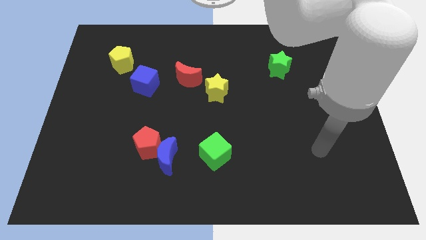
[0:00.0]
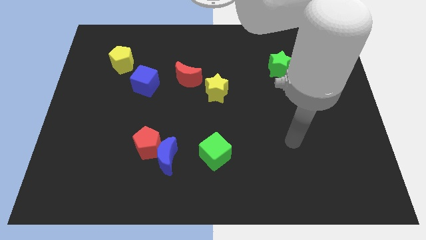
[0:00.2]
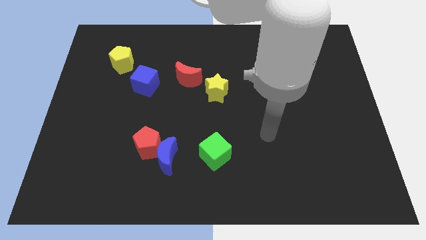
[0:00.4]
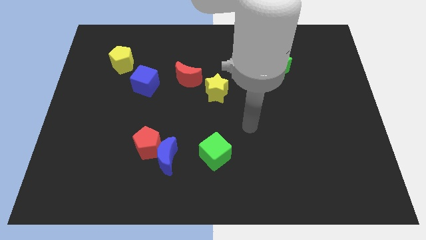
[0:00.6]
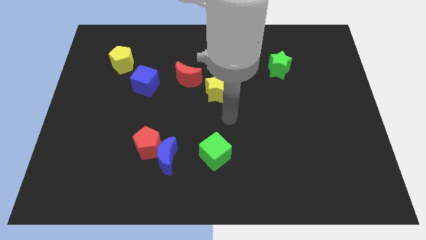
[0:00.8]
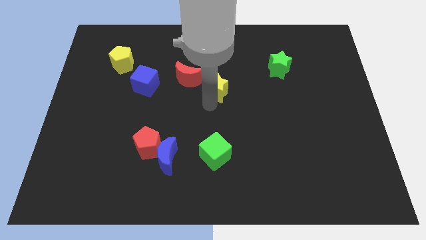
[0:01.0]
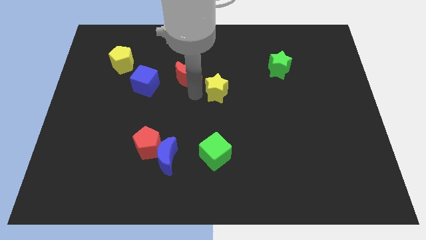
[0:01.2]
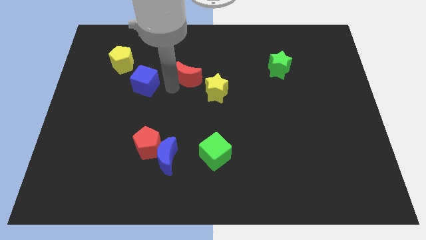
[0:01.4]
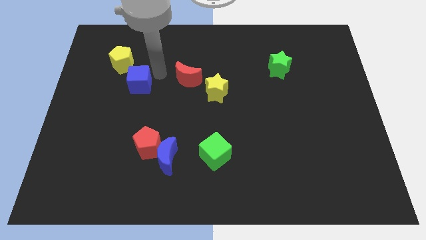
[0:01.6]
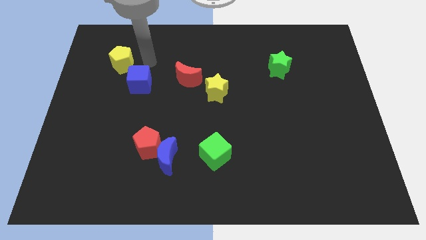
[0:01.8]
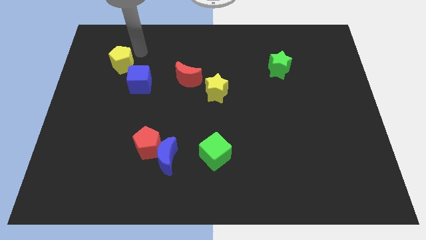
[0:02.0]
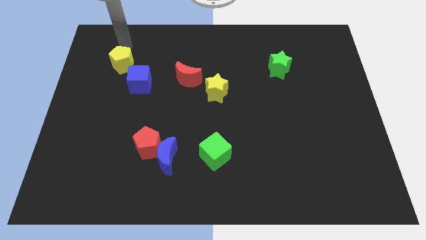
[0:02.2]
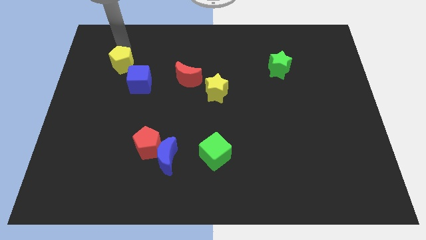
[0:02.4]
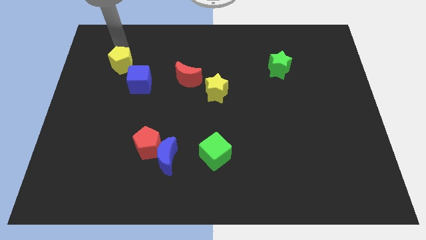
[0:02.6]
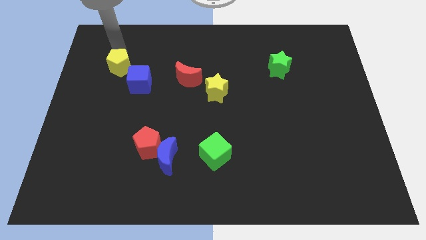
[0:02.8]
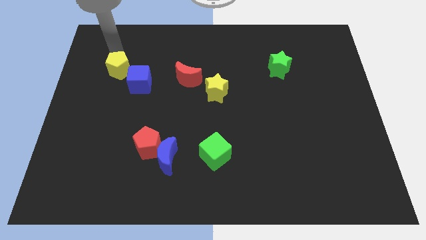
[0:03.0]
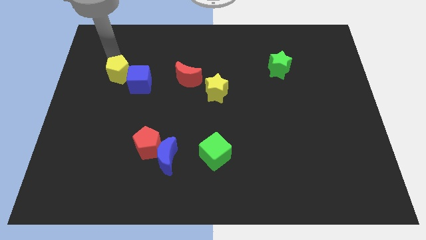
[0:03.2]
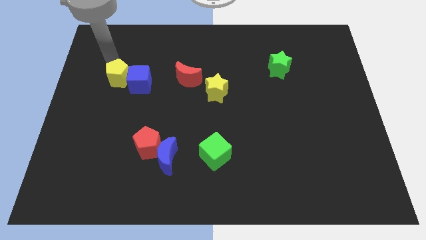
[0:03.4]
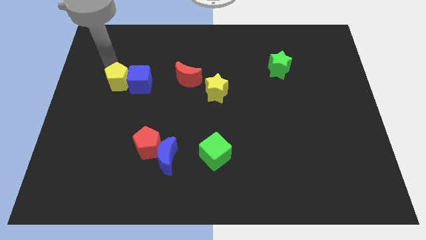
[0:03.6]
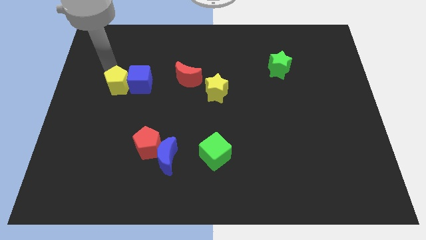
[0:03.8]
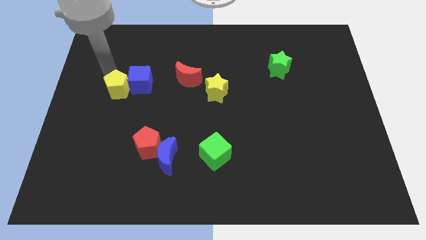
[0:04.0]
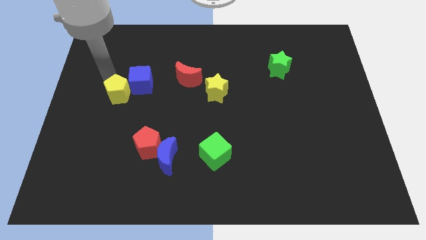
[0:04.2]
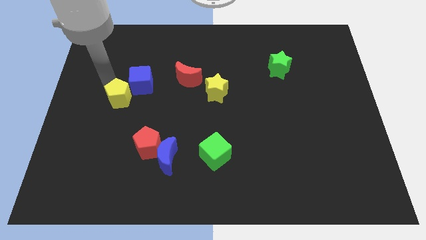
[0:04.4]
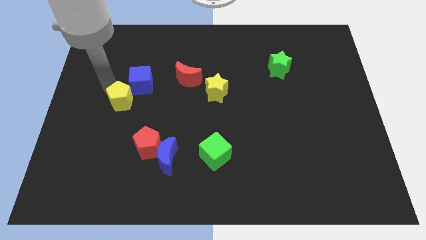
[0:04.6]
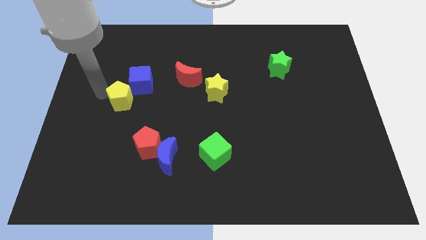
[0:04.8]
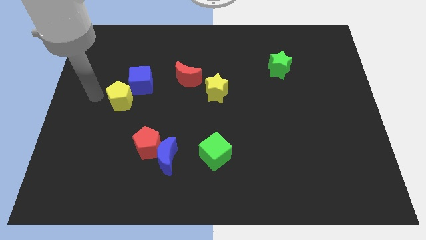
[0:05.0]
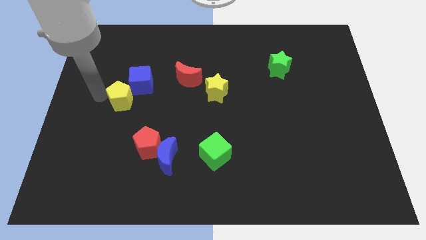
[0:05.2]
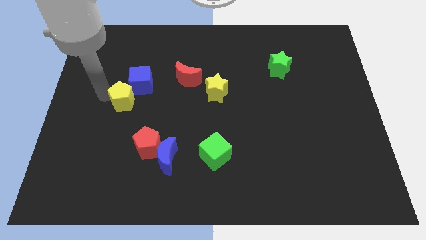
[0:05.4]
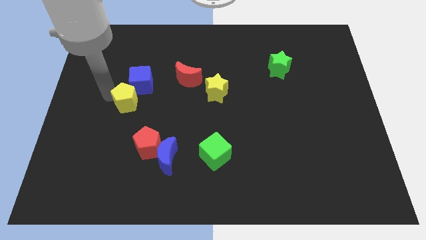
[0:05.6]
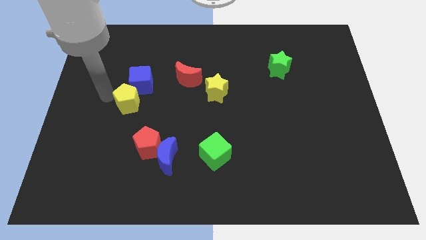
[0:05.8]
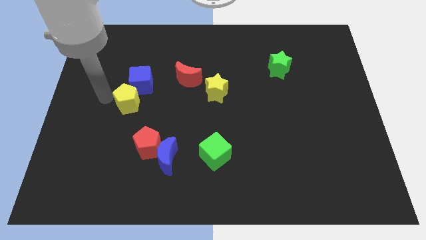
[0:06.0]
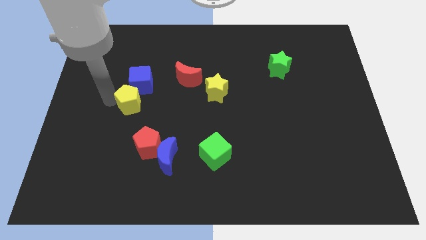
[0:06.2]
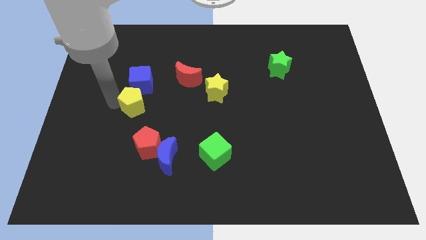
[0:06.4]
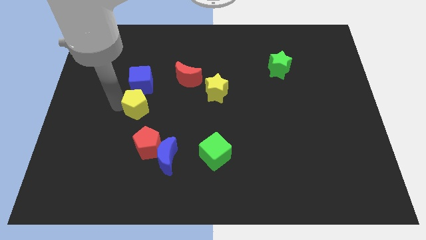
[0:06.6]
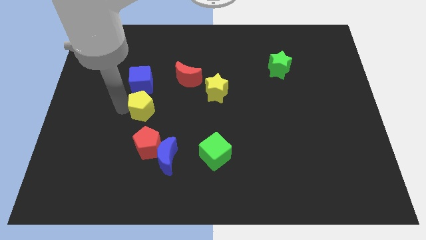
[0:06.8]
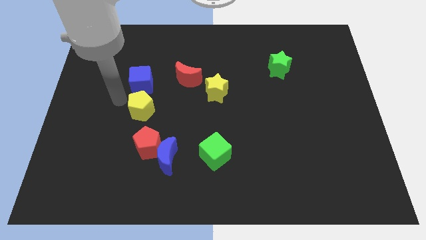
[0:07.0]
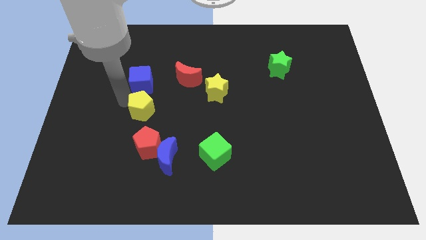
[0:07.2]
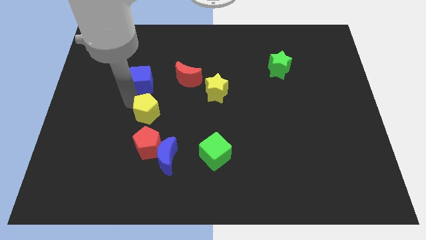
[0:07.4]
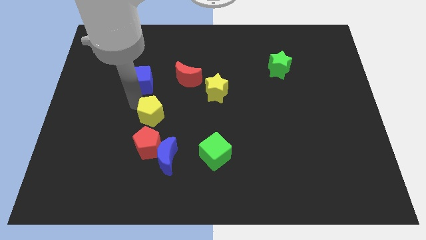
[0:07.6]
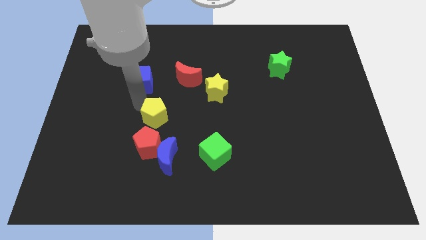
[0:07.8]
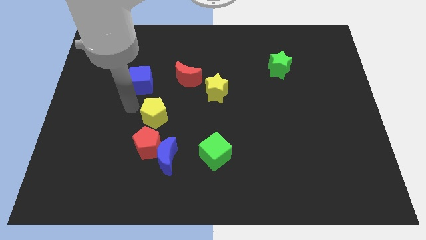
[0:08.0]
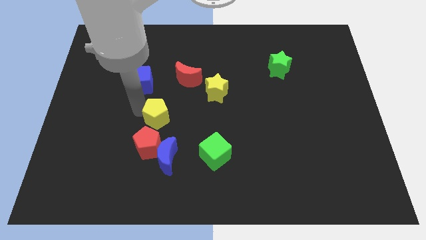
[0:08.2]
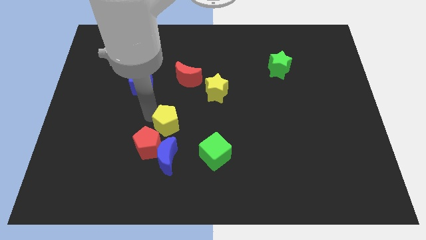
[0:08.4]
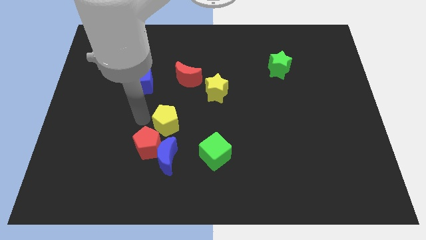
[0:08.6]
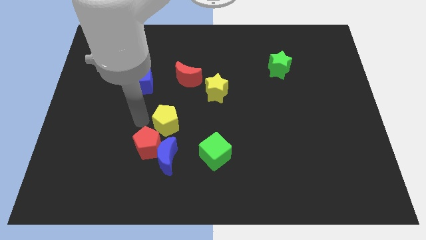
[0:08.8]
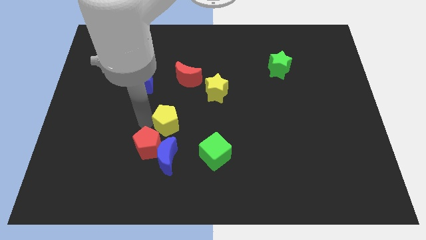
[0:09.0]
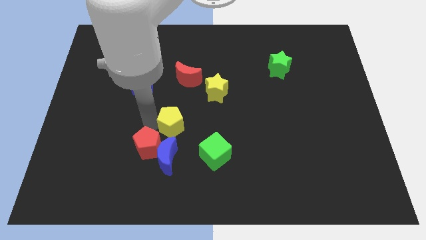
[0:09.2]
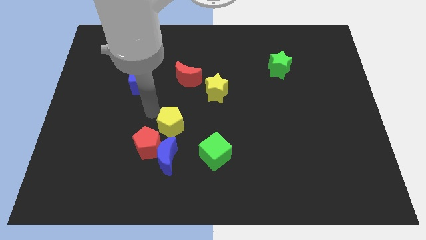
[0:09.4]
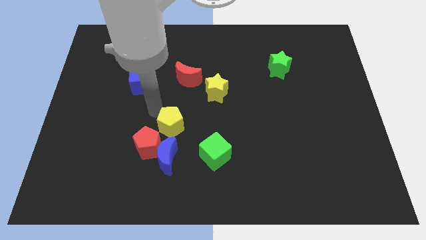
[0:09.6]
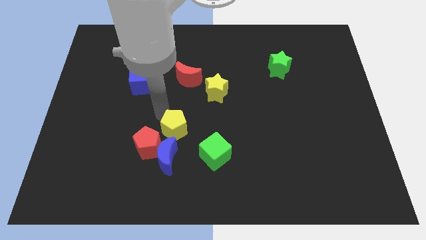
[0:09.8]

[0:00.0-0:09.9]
push the yellow pentagon to the right of the red pentagon

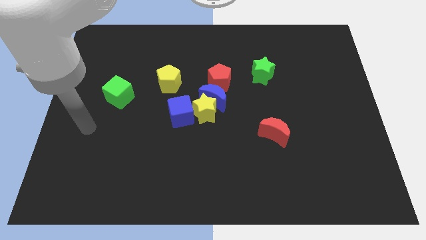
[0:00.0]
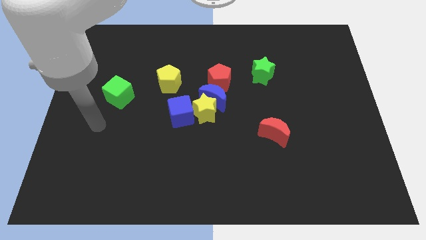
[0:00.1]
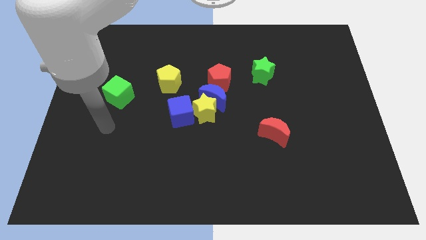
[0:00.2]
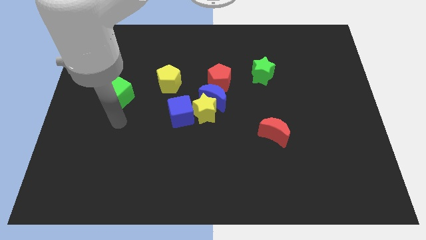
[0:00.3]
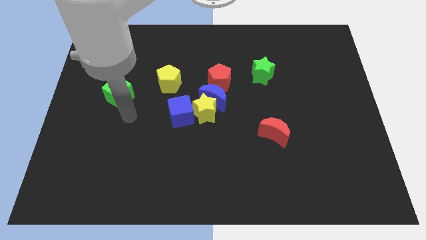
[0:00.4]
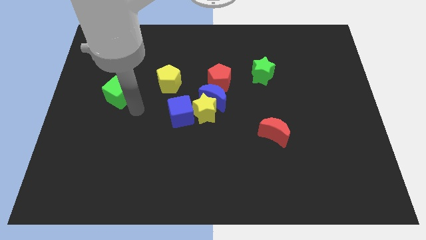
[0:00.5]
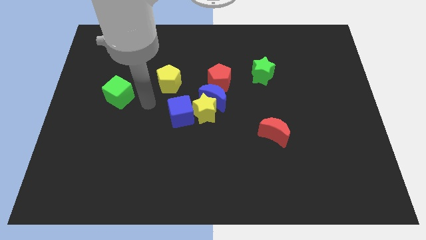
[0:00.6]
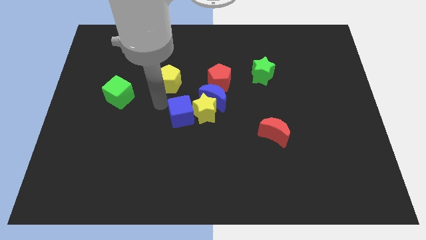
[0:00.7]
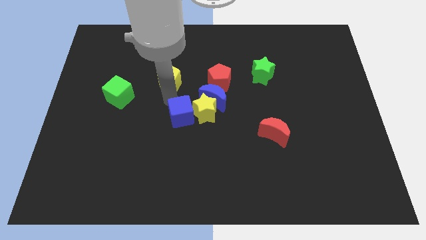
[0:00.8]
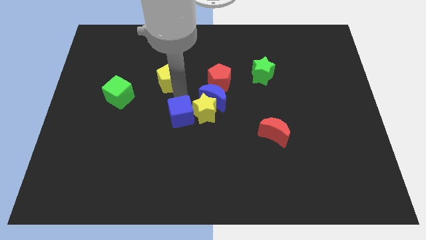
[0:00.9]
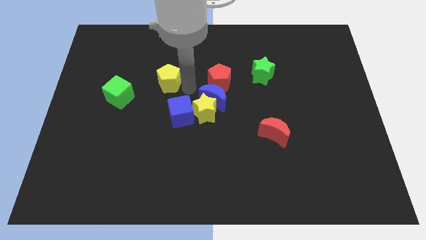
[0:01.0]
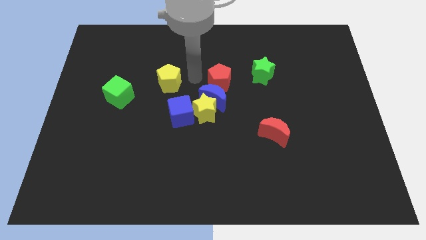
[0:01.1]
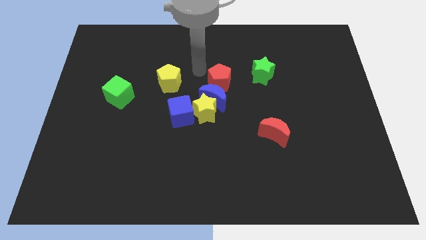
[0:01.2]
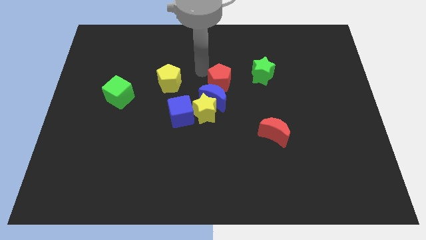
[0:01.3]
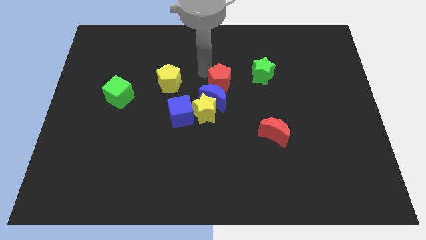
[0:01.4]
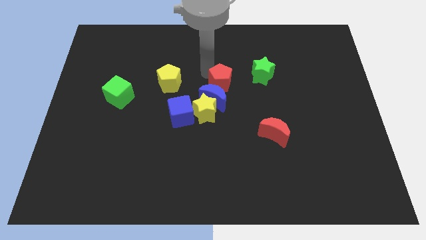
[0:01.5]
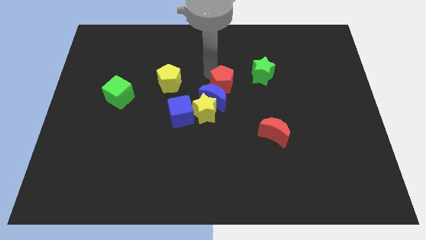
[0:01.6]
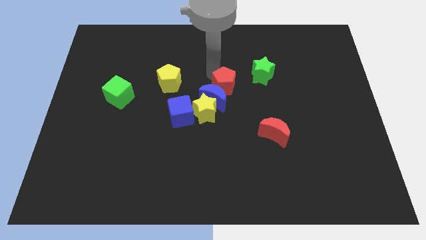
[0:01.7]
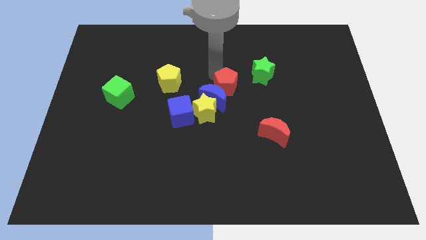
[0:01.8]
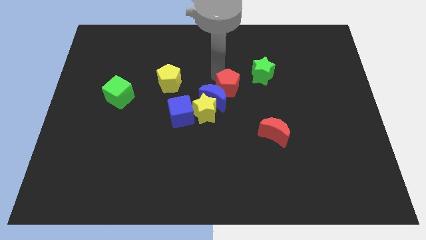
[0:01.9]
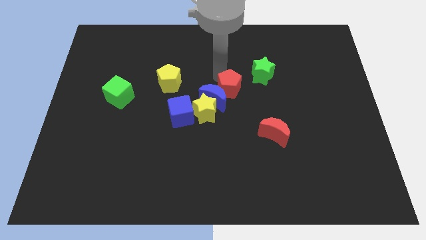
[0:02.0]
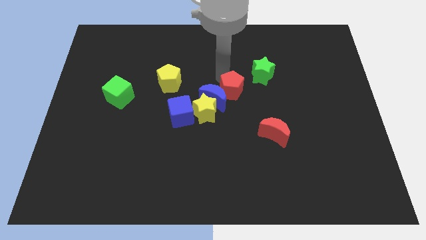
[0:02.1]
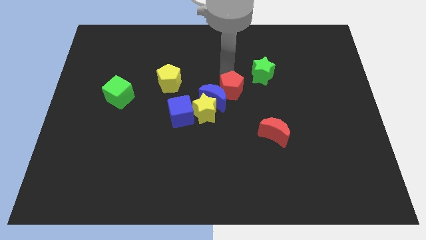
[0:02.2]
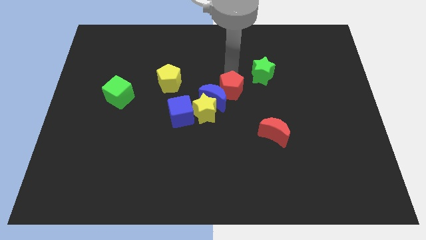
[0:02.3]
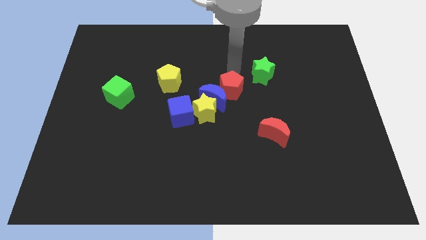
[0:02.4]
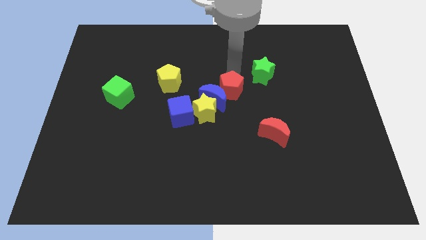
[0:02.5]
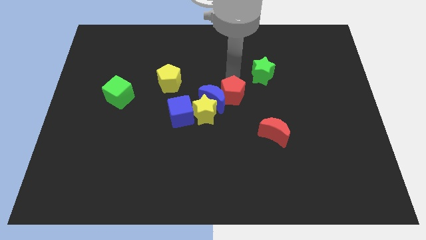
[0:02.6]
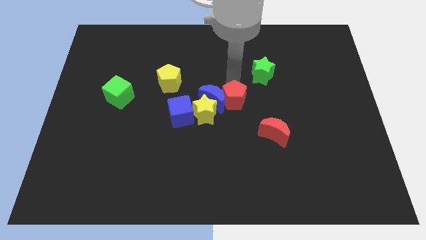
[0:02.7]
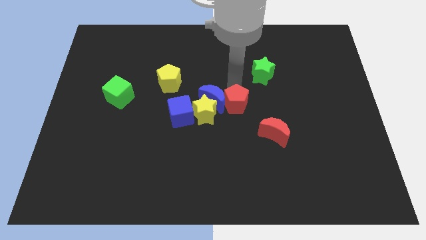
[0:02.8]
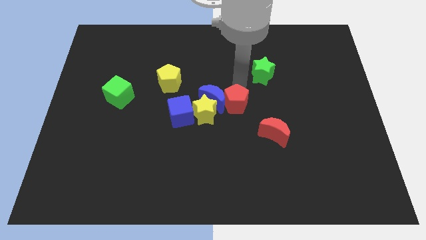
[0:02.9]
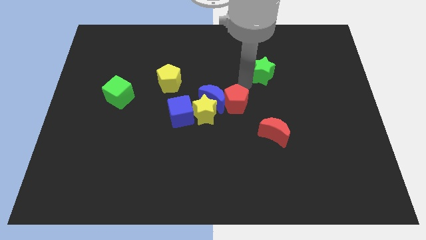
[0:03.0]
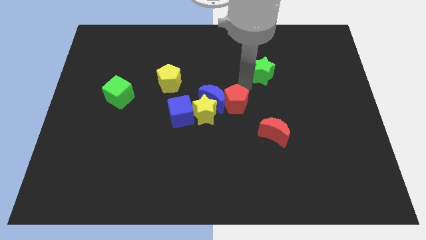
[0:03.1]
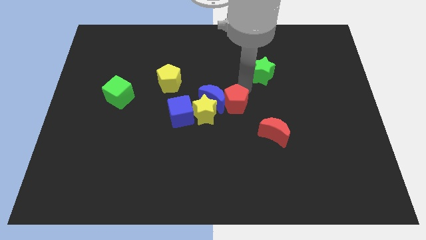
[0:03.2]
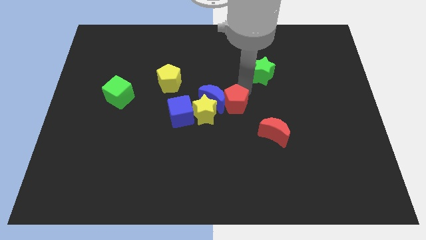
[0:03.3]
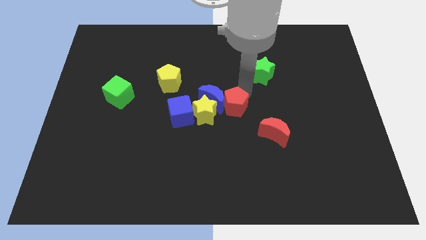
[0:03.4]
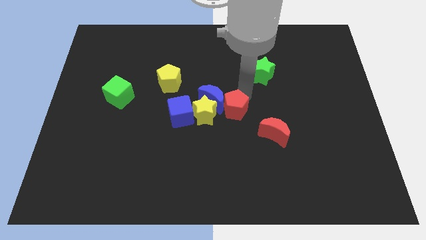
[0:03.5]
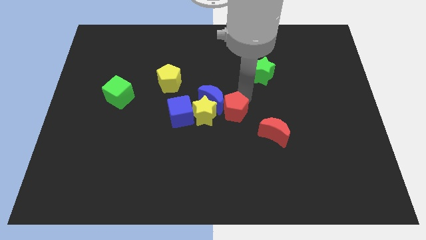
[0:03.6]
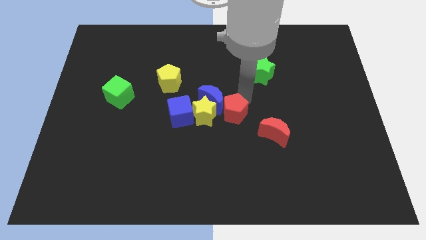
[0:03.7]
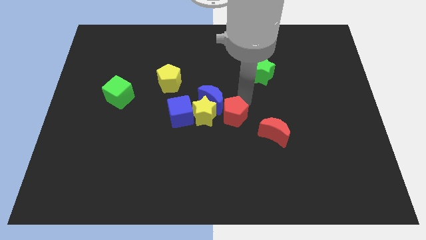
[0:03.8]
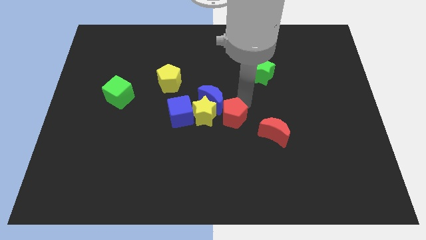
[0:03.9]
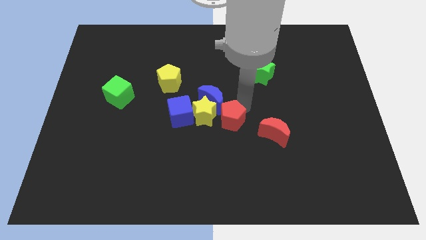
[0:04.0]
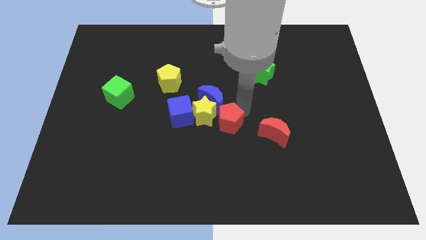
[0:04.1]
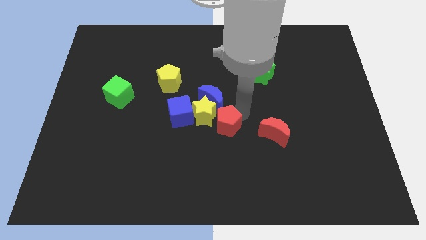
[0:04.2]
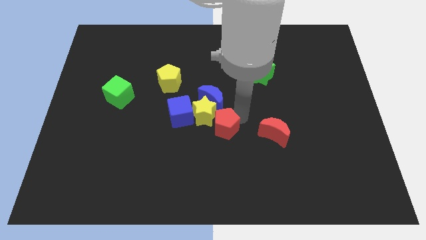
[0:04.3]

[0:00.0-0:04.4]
move the red pentagon to the bottom of the yellow star
